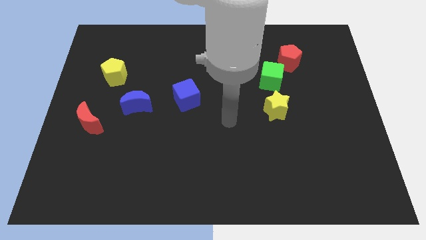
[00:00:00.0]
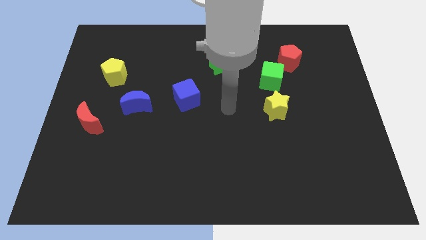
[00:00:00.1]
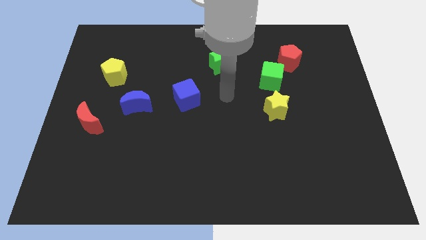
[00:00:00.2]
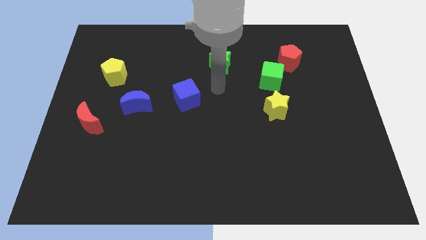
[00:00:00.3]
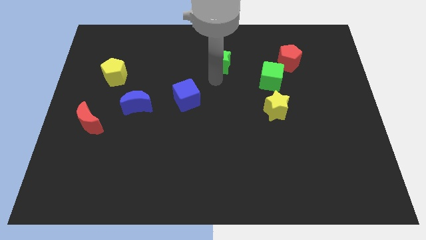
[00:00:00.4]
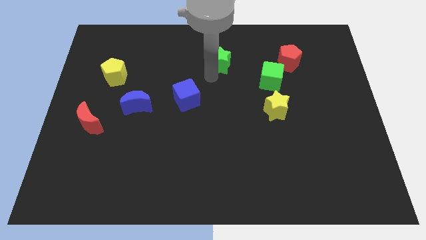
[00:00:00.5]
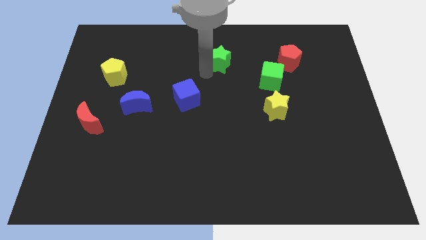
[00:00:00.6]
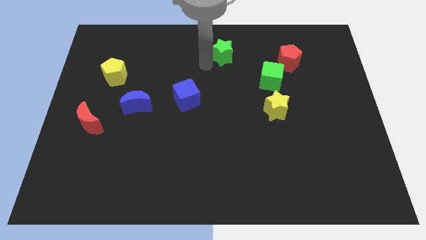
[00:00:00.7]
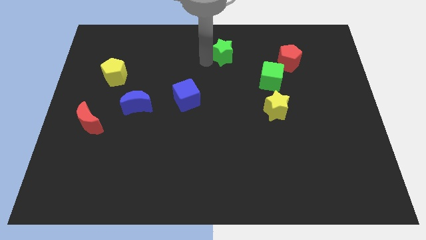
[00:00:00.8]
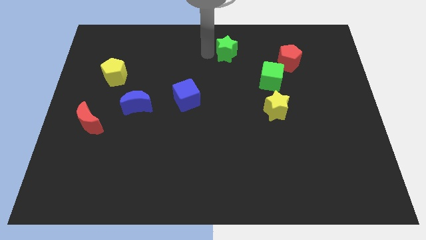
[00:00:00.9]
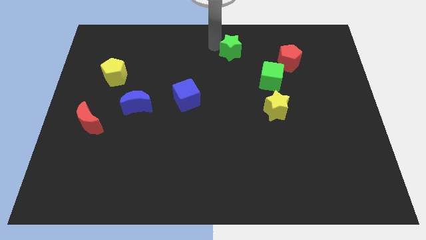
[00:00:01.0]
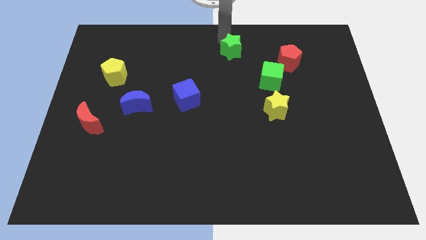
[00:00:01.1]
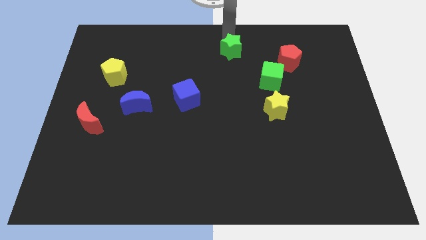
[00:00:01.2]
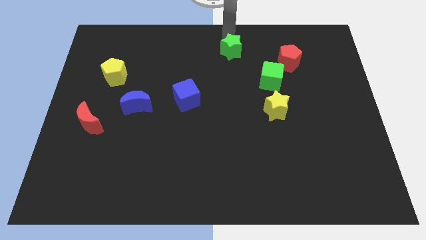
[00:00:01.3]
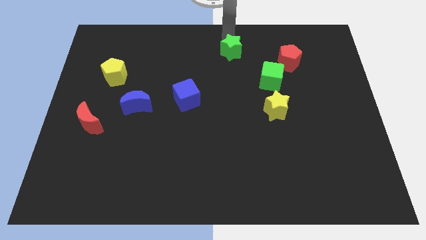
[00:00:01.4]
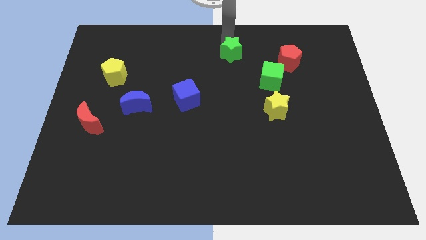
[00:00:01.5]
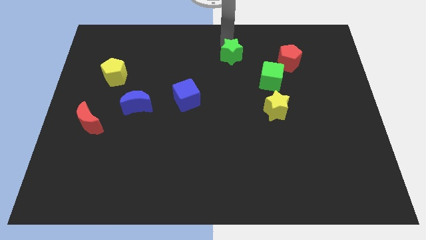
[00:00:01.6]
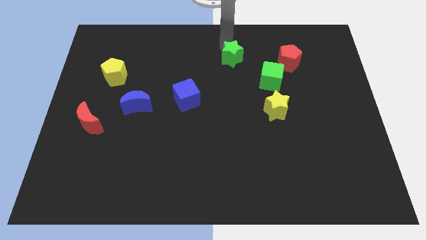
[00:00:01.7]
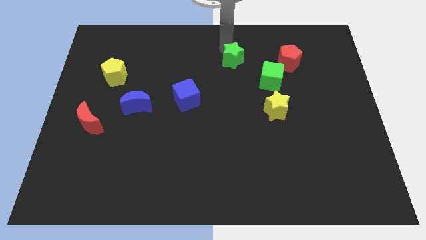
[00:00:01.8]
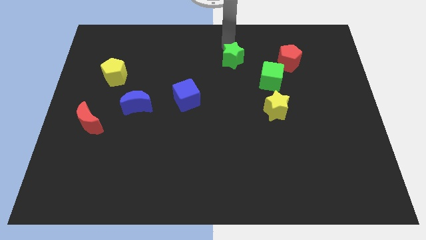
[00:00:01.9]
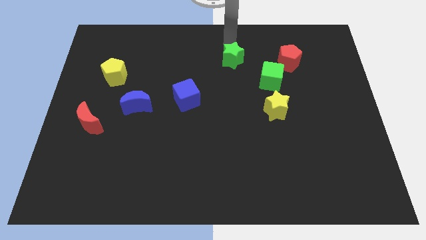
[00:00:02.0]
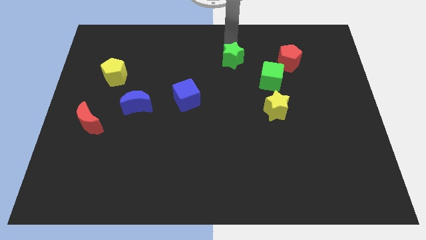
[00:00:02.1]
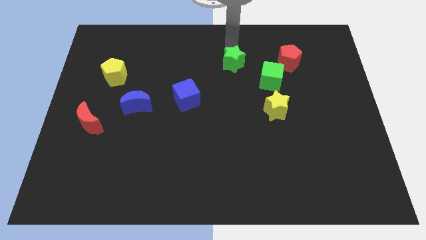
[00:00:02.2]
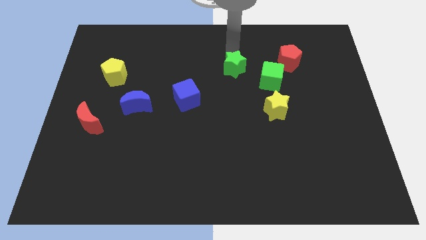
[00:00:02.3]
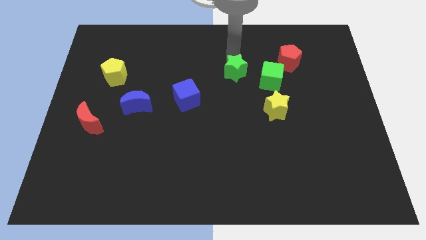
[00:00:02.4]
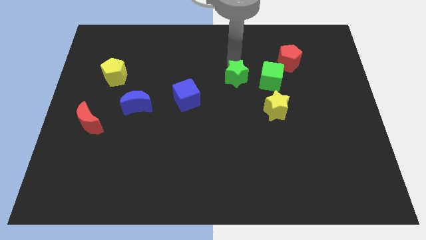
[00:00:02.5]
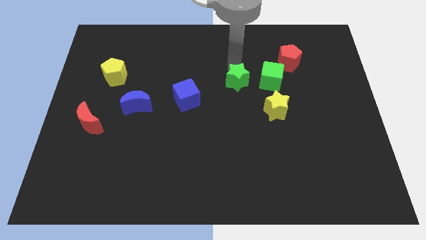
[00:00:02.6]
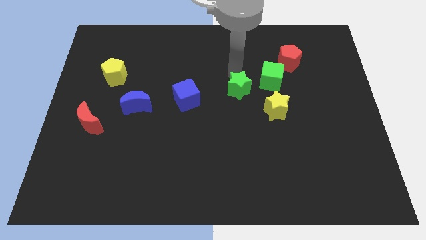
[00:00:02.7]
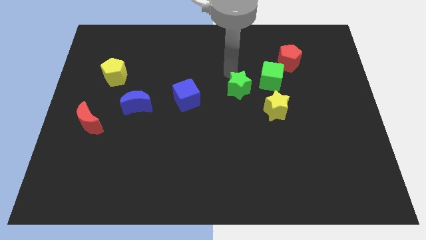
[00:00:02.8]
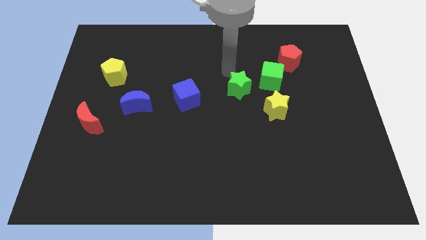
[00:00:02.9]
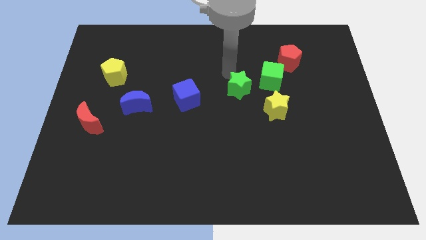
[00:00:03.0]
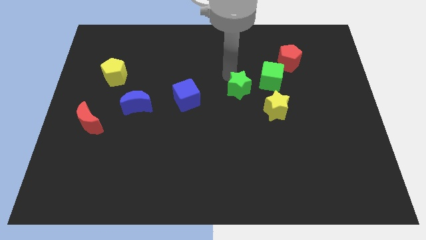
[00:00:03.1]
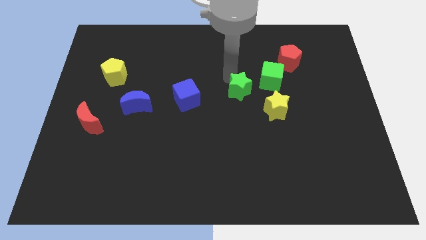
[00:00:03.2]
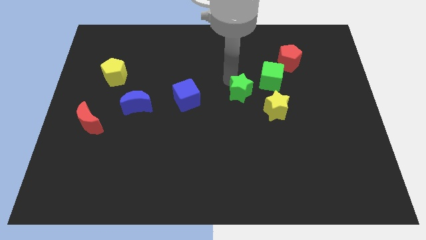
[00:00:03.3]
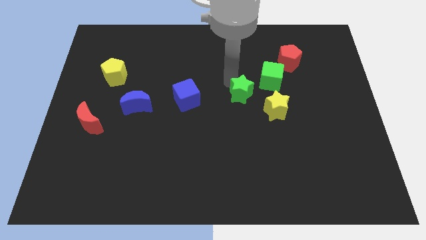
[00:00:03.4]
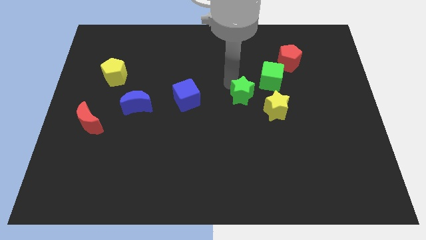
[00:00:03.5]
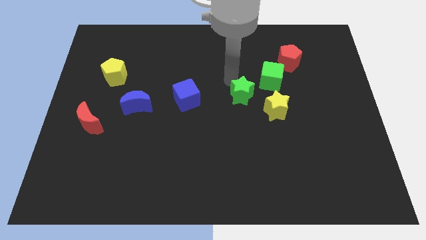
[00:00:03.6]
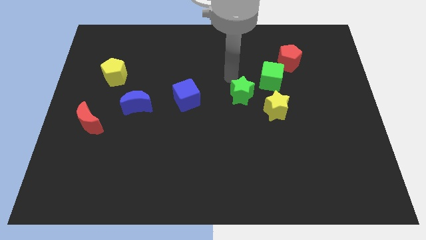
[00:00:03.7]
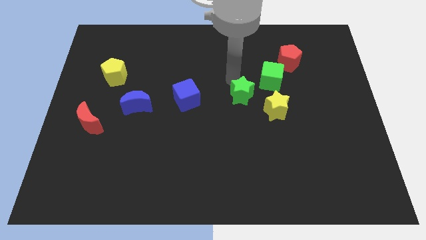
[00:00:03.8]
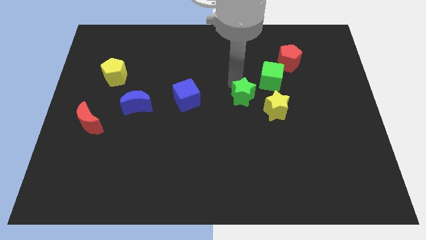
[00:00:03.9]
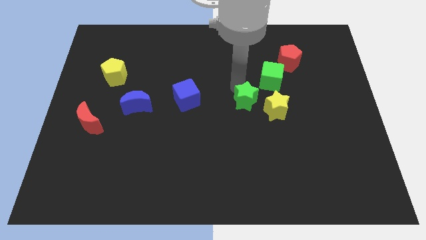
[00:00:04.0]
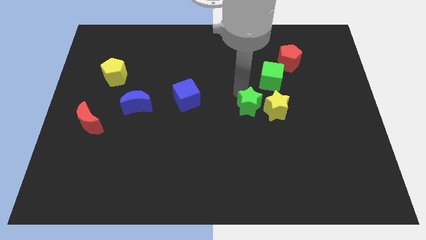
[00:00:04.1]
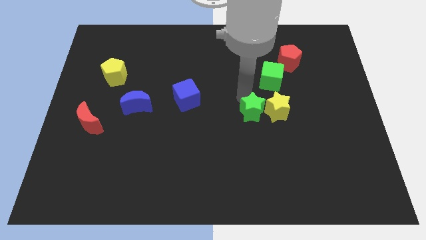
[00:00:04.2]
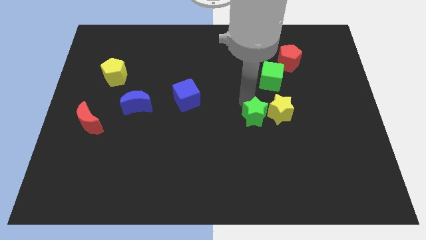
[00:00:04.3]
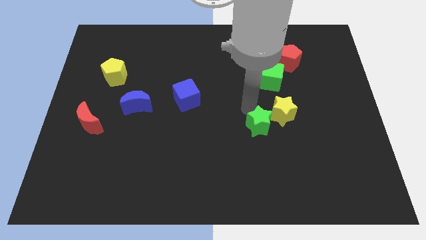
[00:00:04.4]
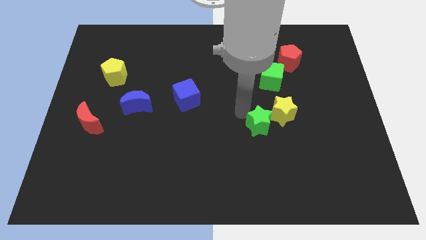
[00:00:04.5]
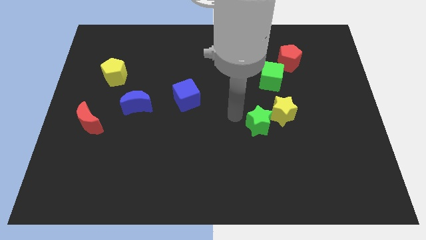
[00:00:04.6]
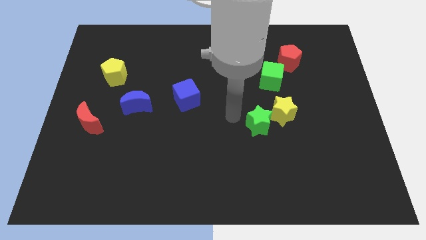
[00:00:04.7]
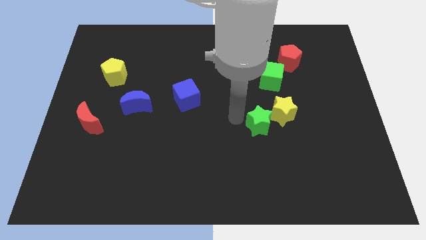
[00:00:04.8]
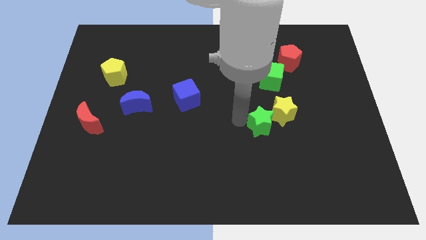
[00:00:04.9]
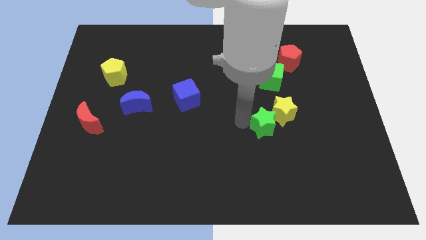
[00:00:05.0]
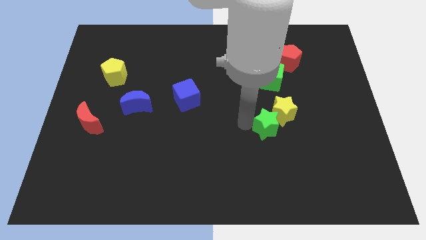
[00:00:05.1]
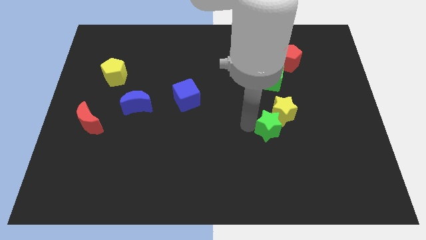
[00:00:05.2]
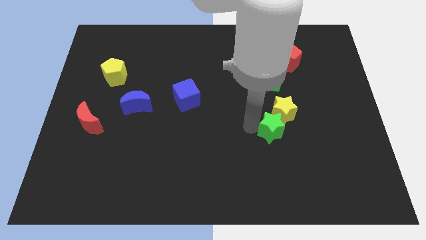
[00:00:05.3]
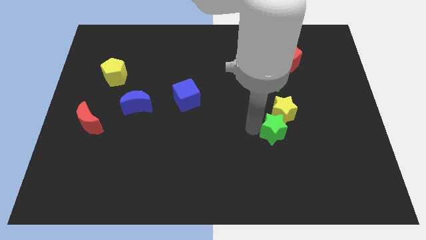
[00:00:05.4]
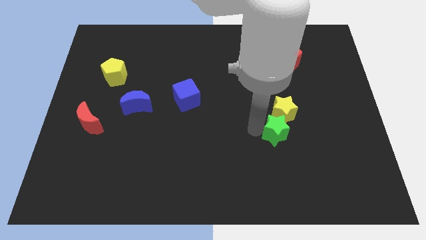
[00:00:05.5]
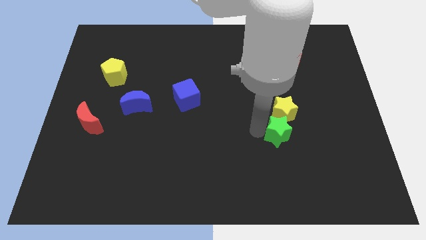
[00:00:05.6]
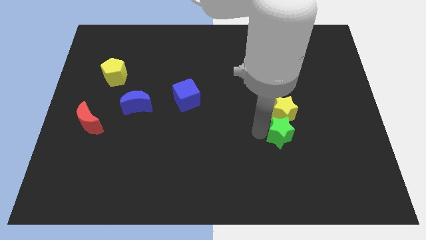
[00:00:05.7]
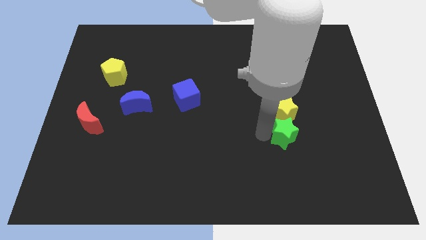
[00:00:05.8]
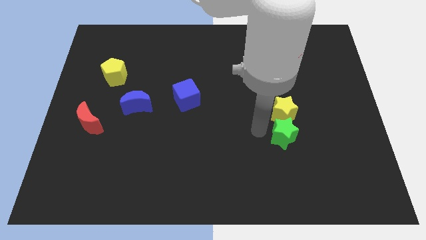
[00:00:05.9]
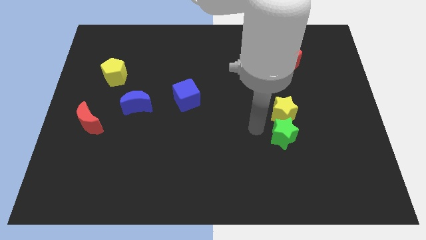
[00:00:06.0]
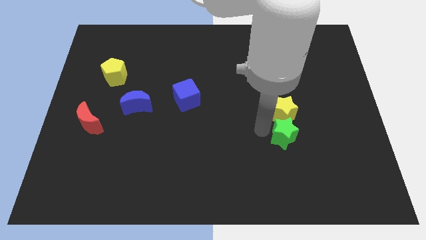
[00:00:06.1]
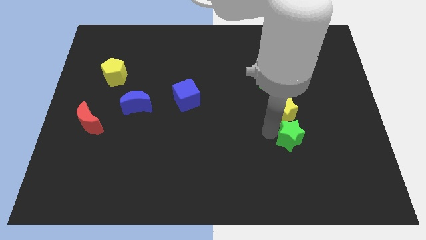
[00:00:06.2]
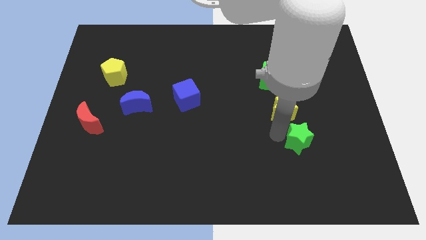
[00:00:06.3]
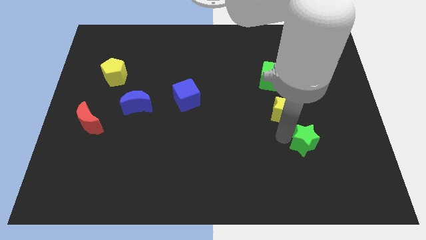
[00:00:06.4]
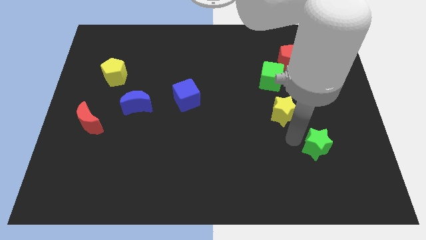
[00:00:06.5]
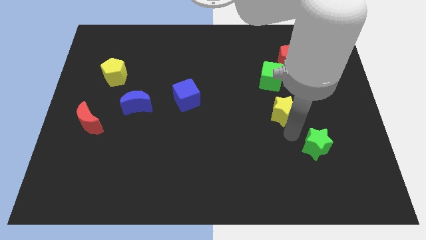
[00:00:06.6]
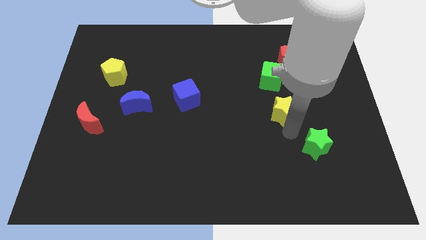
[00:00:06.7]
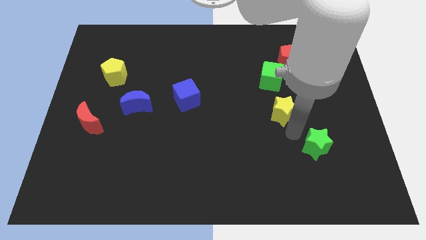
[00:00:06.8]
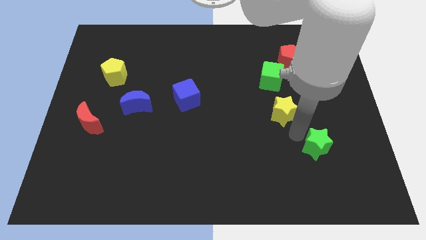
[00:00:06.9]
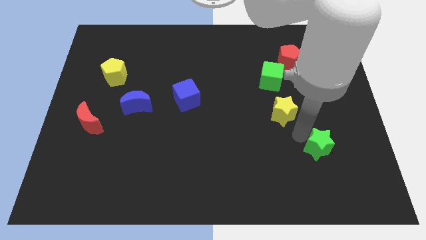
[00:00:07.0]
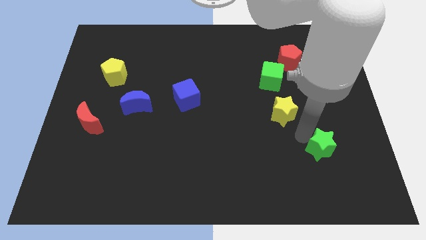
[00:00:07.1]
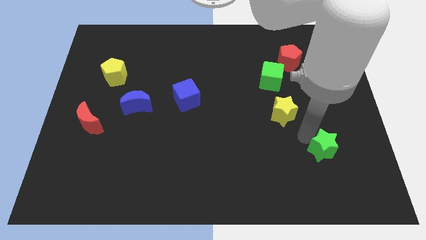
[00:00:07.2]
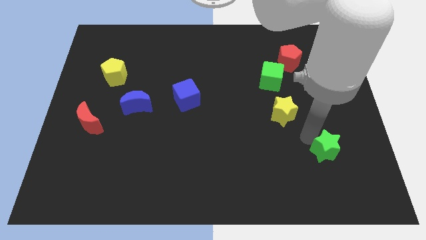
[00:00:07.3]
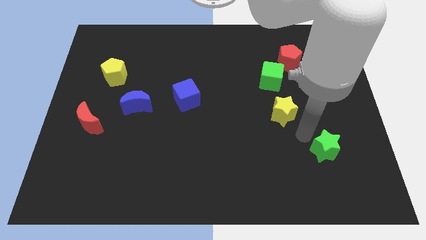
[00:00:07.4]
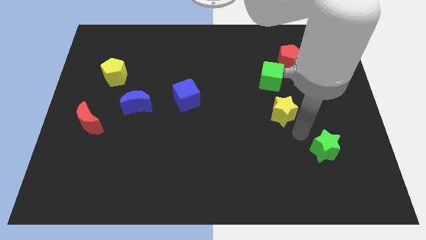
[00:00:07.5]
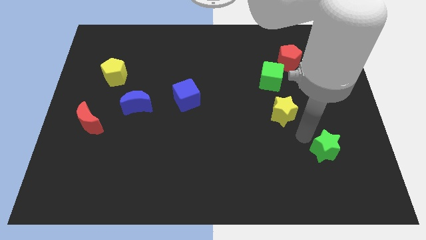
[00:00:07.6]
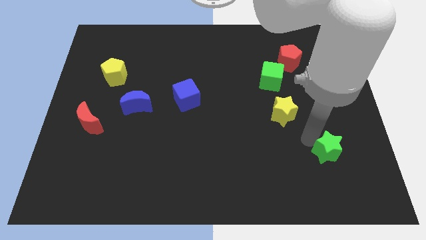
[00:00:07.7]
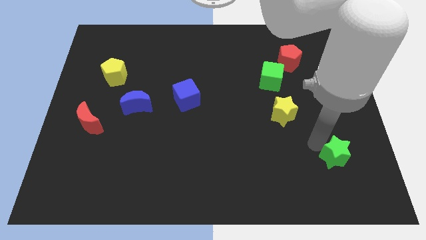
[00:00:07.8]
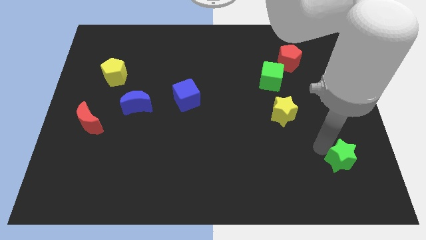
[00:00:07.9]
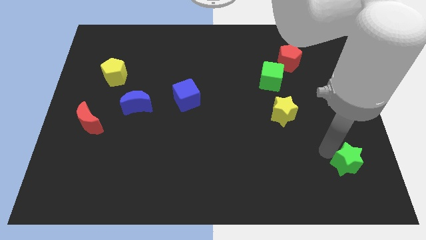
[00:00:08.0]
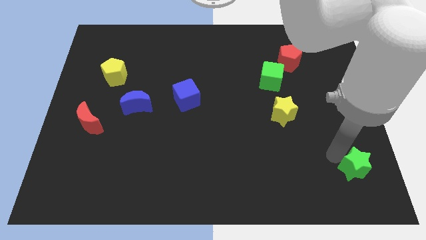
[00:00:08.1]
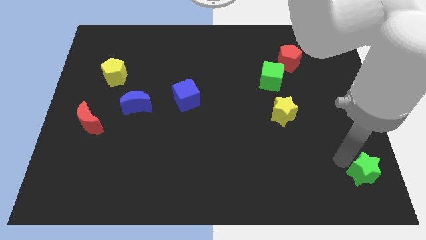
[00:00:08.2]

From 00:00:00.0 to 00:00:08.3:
put the green star to the bottom right
